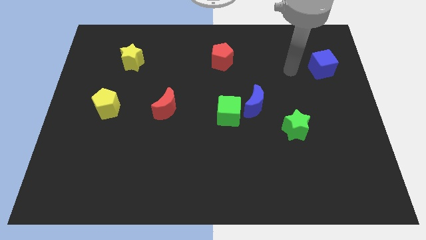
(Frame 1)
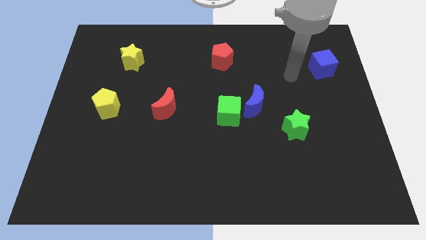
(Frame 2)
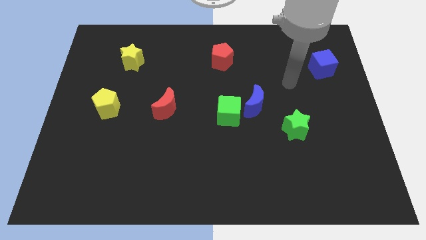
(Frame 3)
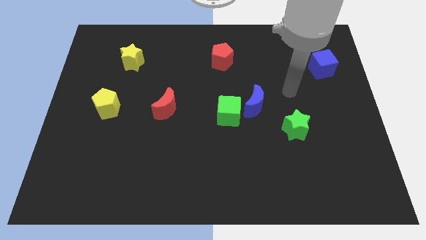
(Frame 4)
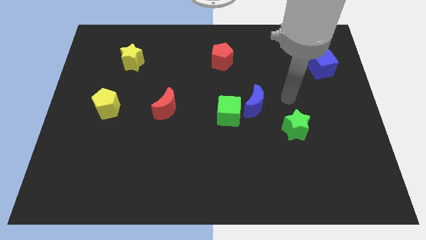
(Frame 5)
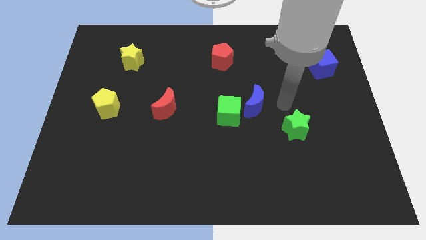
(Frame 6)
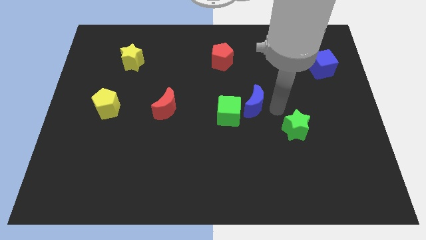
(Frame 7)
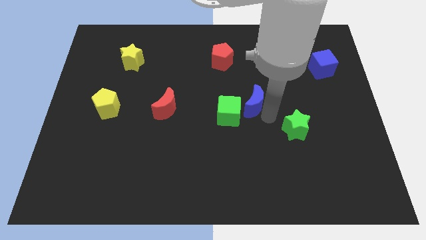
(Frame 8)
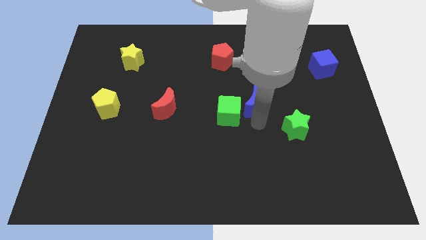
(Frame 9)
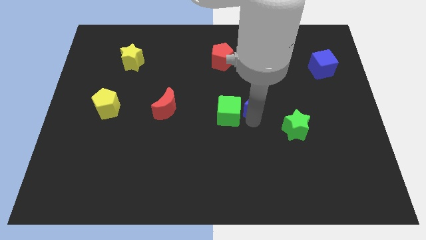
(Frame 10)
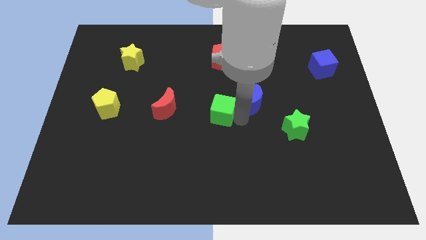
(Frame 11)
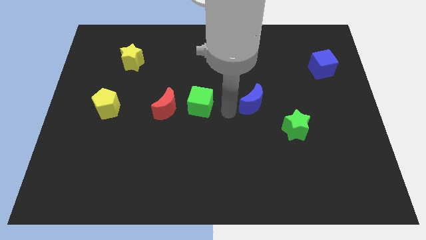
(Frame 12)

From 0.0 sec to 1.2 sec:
move the blue moon away from the green cube

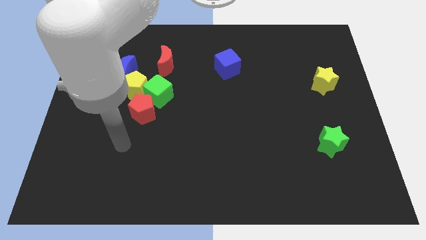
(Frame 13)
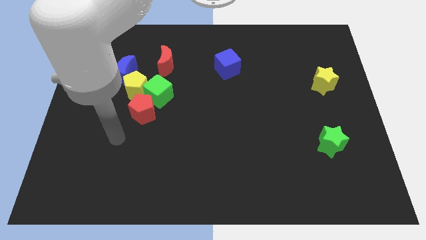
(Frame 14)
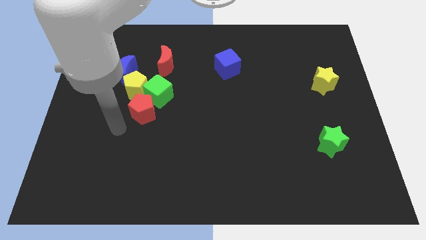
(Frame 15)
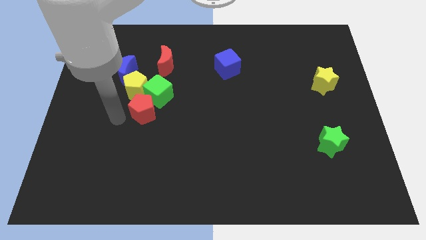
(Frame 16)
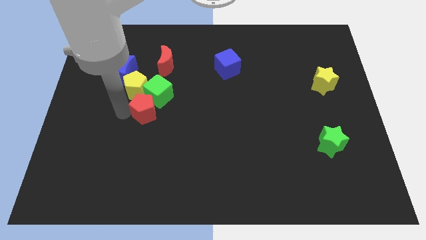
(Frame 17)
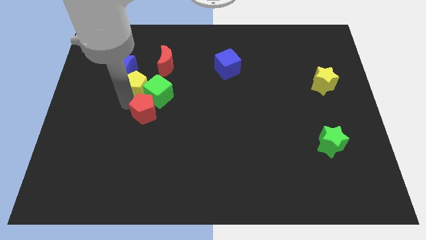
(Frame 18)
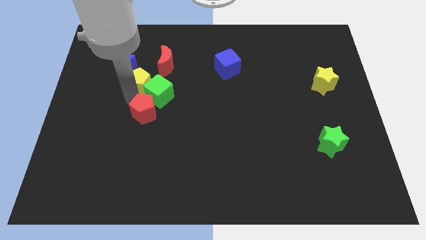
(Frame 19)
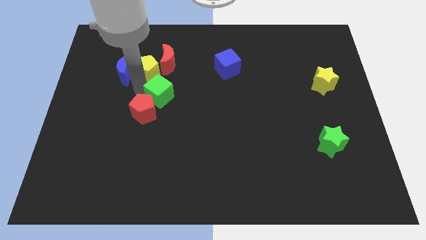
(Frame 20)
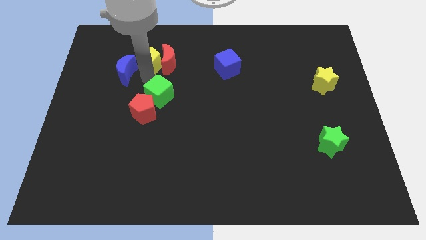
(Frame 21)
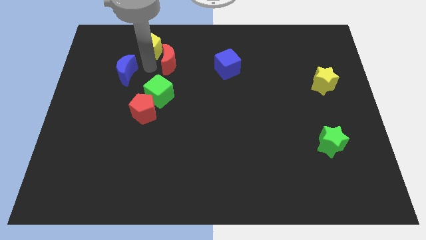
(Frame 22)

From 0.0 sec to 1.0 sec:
separate the blue moon from the yellow pentagon

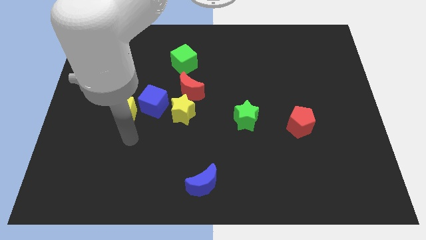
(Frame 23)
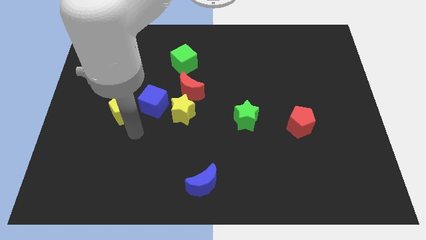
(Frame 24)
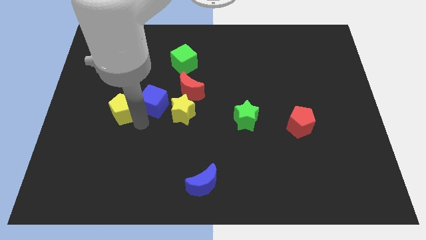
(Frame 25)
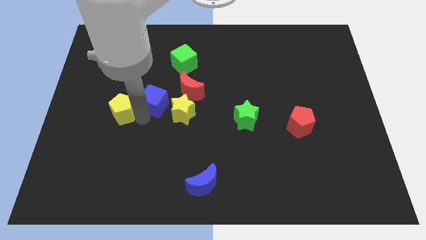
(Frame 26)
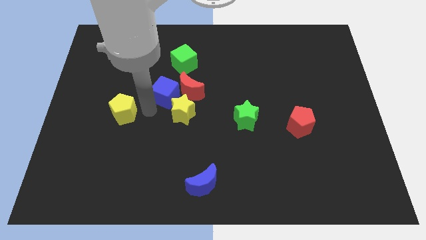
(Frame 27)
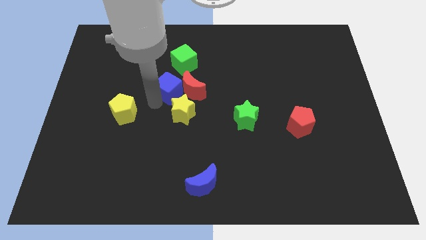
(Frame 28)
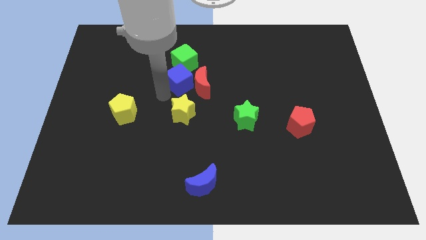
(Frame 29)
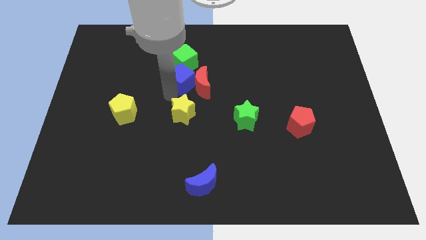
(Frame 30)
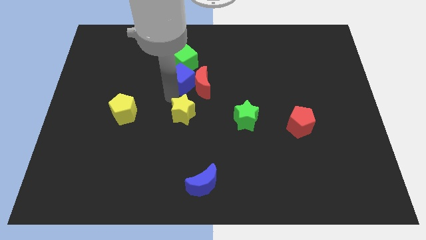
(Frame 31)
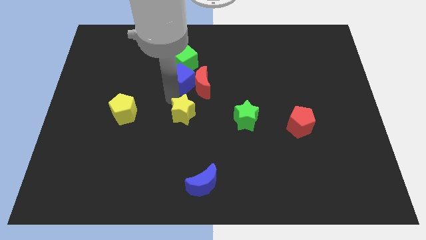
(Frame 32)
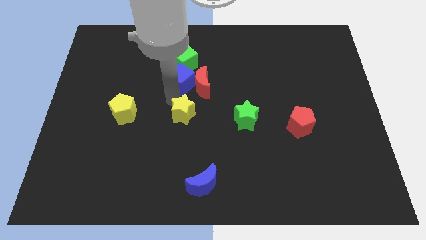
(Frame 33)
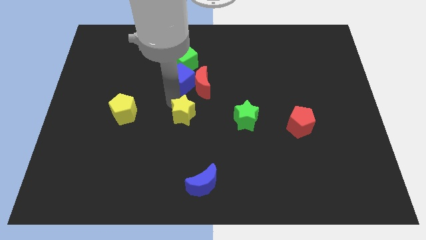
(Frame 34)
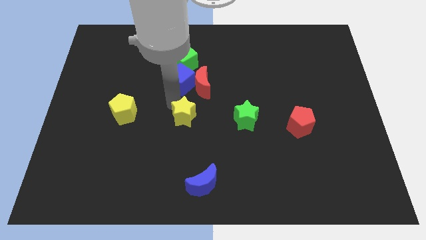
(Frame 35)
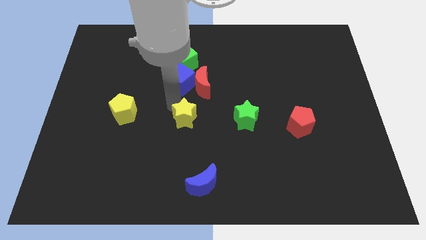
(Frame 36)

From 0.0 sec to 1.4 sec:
pull the yellow star apart from the red moon and blue cube

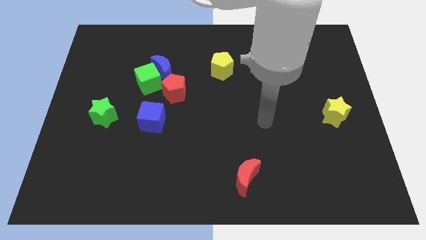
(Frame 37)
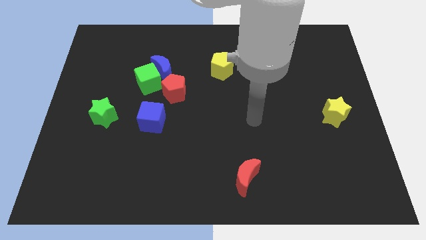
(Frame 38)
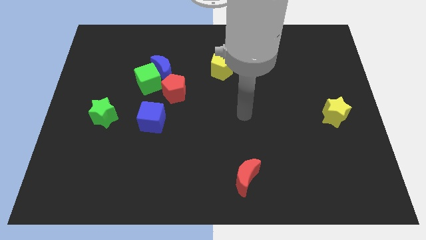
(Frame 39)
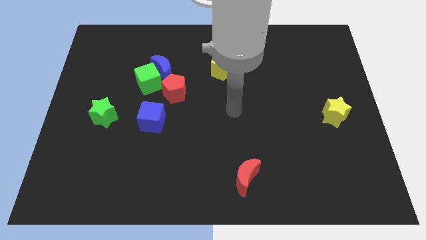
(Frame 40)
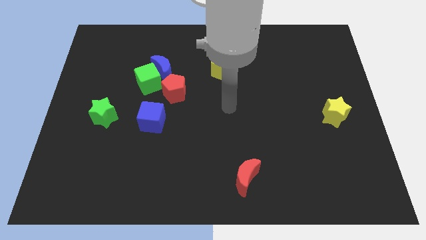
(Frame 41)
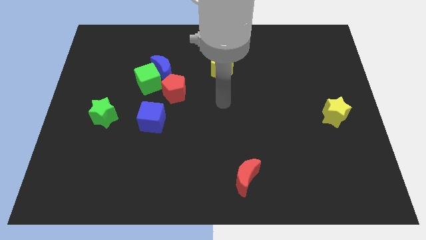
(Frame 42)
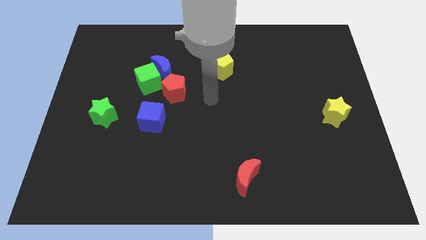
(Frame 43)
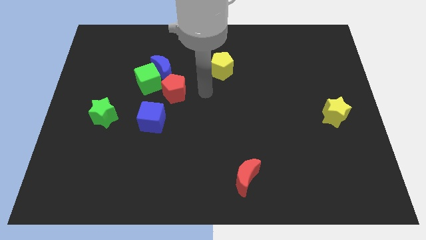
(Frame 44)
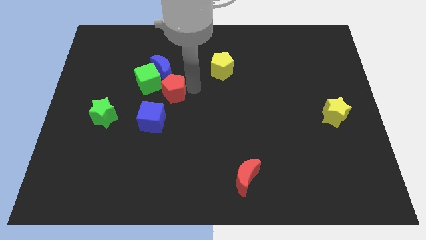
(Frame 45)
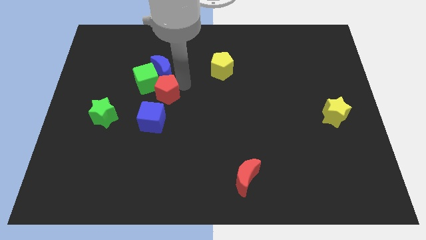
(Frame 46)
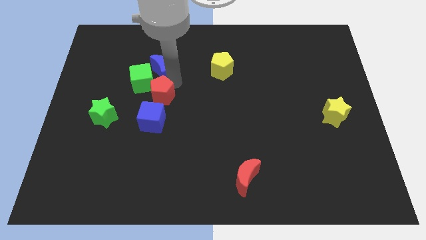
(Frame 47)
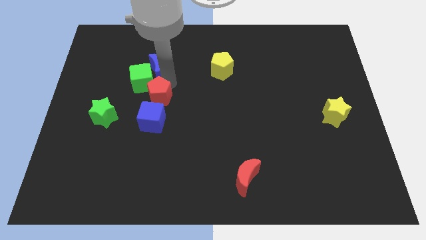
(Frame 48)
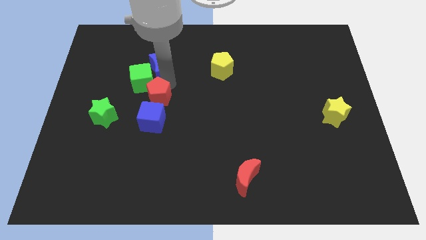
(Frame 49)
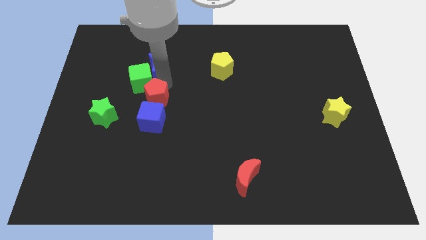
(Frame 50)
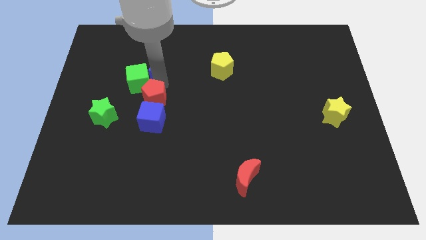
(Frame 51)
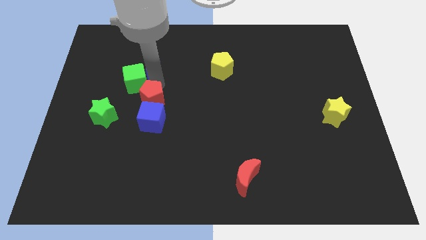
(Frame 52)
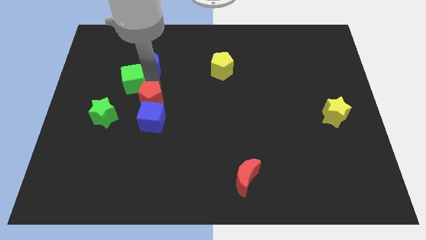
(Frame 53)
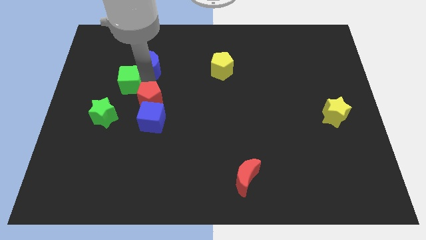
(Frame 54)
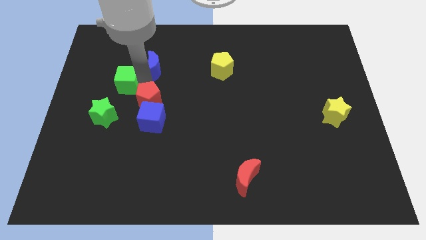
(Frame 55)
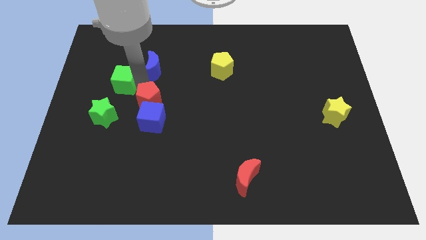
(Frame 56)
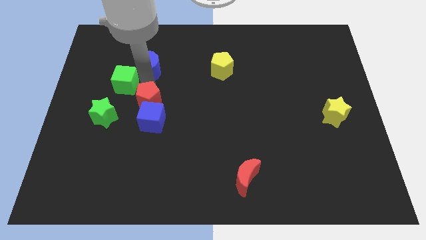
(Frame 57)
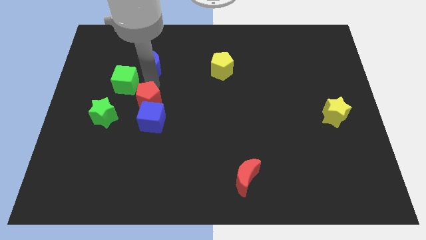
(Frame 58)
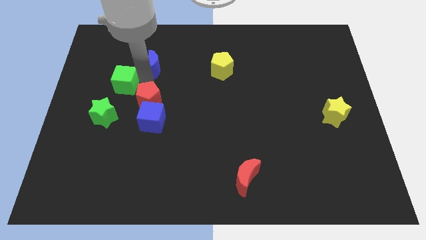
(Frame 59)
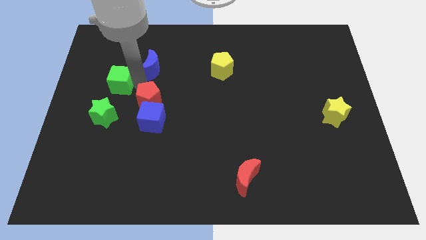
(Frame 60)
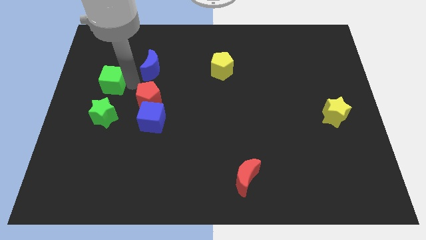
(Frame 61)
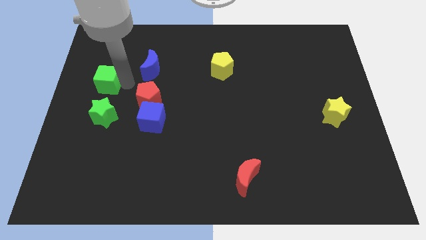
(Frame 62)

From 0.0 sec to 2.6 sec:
move the green cube away from the blue moon and red pentagon

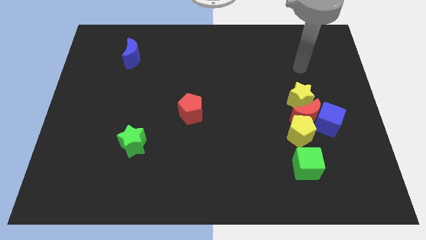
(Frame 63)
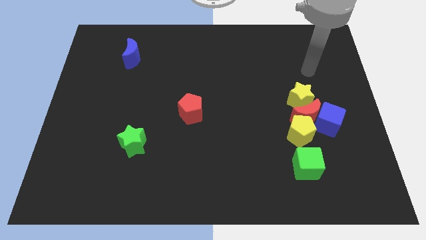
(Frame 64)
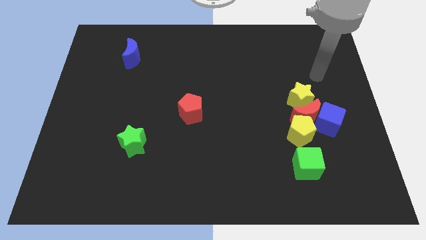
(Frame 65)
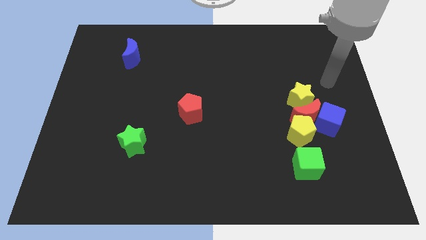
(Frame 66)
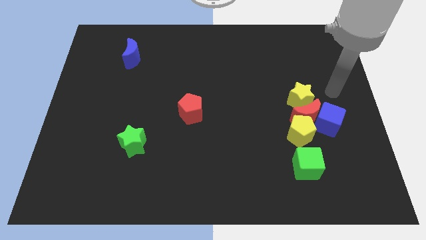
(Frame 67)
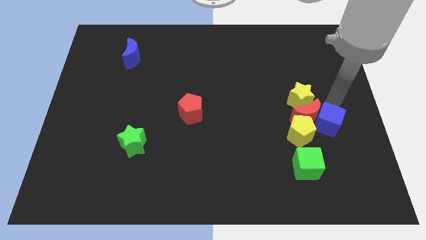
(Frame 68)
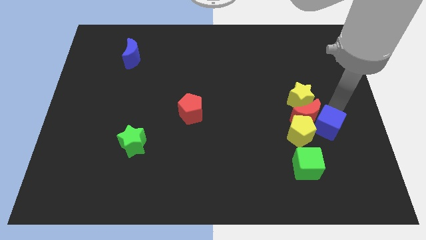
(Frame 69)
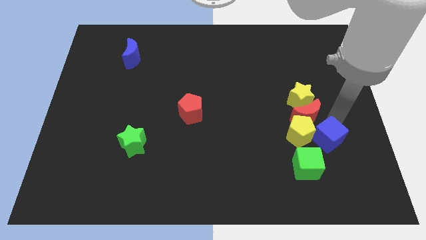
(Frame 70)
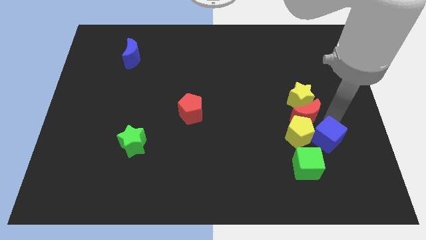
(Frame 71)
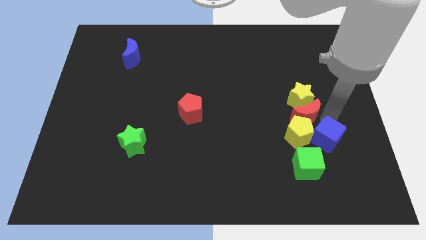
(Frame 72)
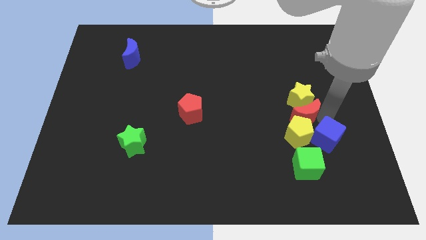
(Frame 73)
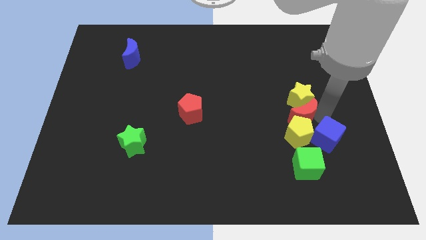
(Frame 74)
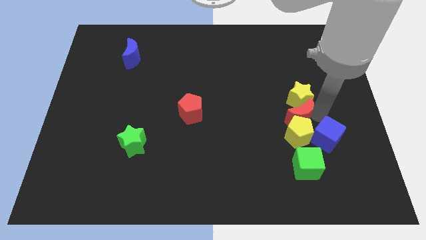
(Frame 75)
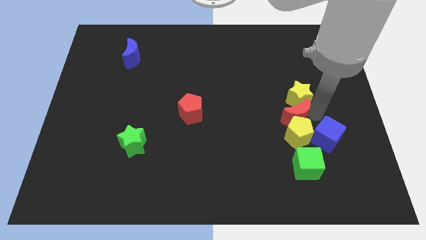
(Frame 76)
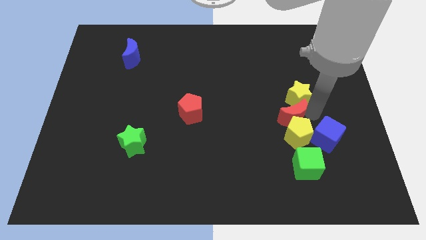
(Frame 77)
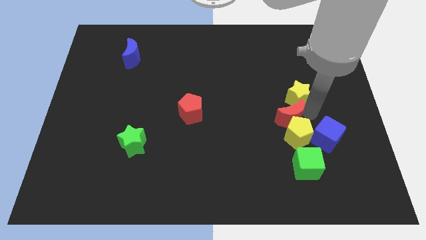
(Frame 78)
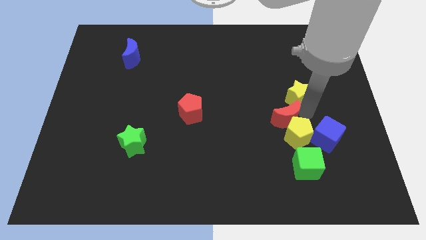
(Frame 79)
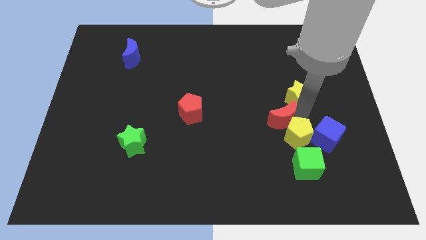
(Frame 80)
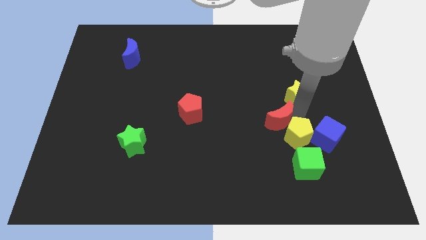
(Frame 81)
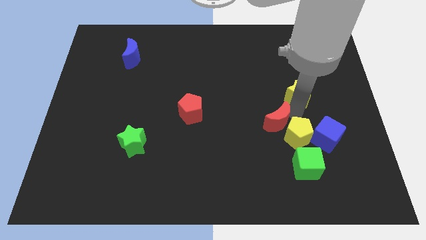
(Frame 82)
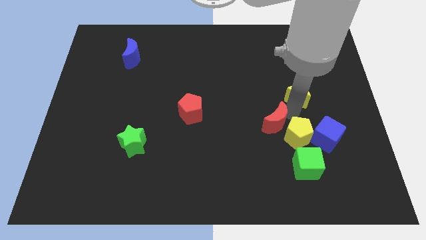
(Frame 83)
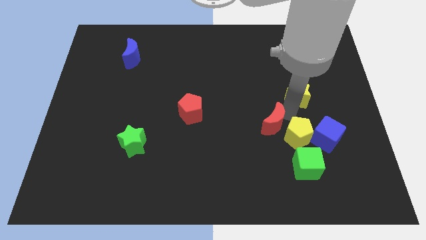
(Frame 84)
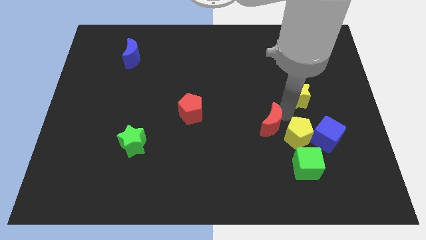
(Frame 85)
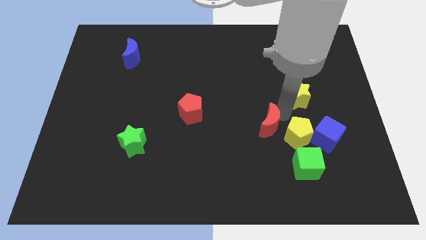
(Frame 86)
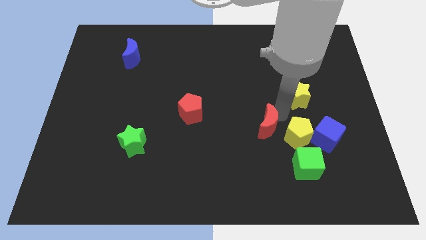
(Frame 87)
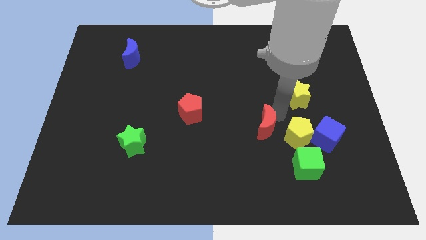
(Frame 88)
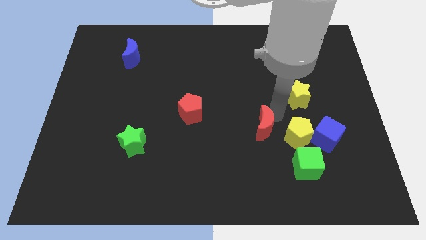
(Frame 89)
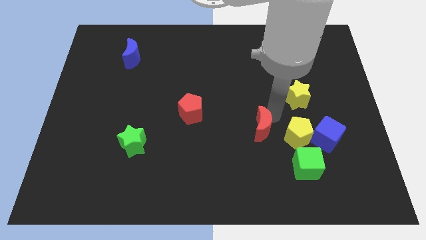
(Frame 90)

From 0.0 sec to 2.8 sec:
move the red moon away from the yellow pentagon, blue cube, and yellow star

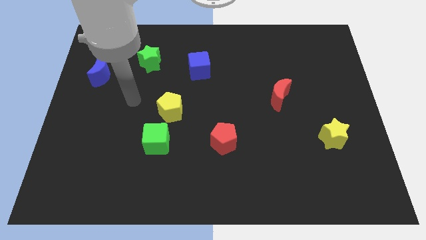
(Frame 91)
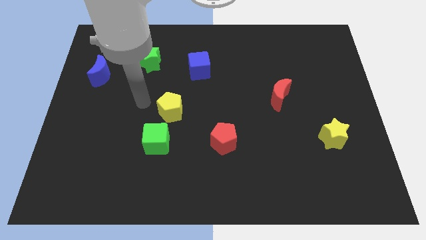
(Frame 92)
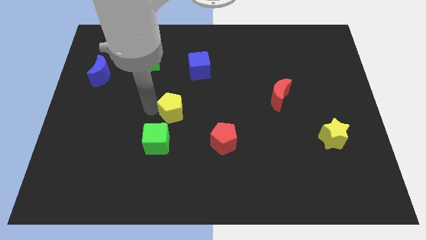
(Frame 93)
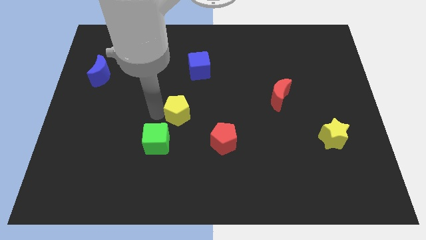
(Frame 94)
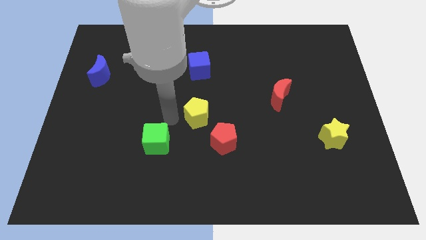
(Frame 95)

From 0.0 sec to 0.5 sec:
move the green cube away from the yellow pentagon
